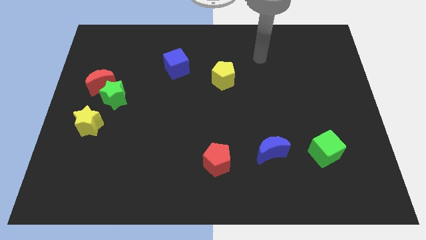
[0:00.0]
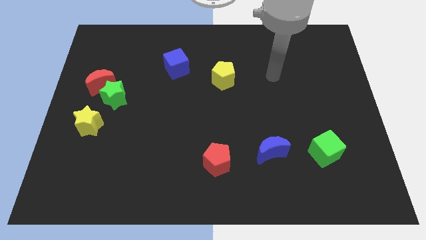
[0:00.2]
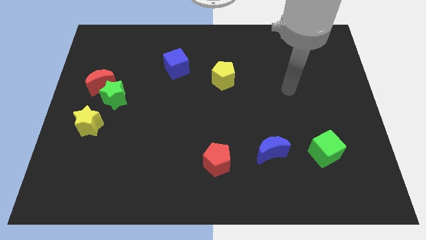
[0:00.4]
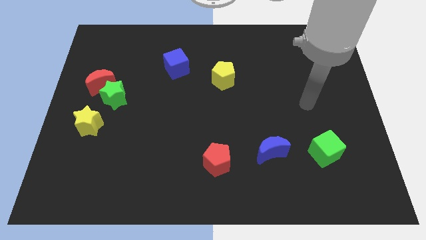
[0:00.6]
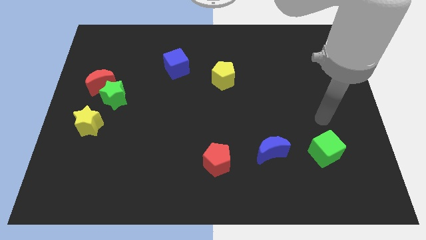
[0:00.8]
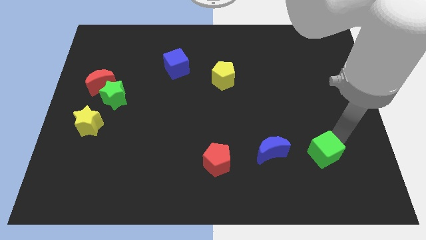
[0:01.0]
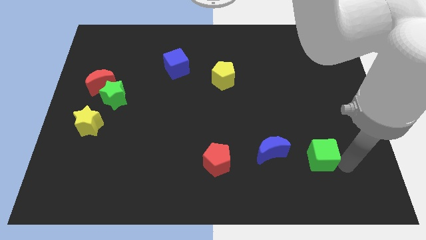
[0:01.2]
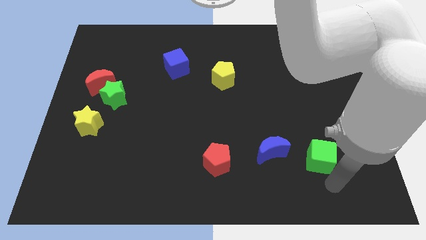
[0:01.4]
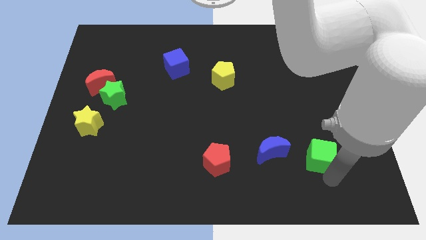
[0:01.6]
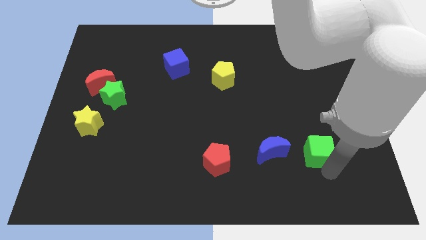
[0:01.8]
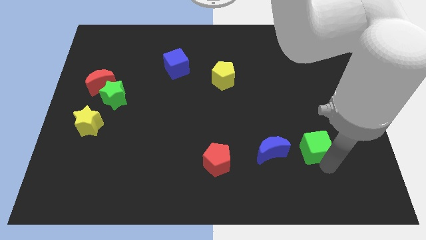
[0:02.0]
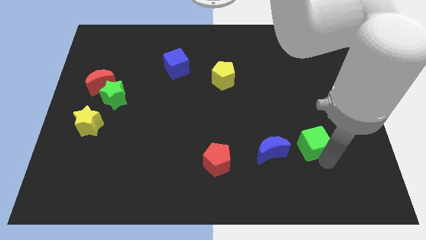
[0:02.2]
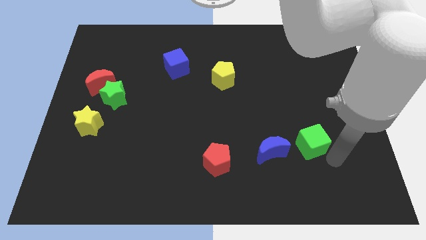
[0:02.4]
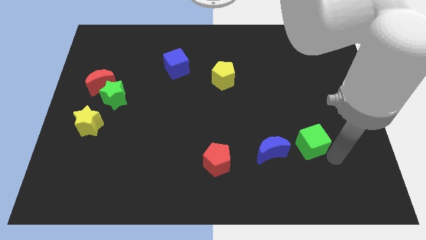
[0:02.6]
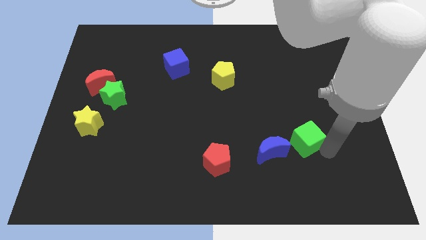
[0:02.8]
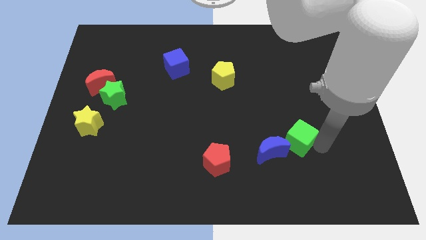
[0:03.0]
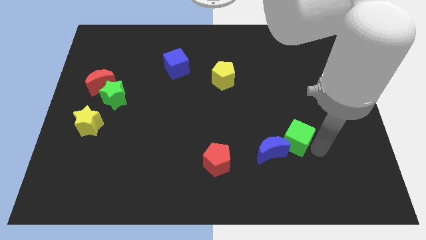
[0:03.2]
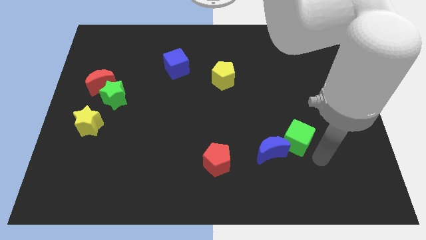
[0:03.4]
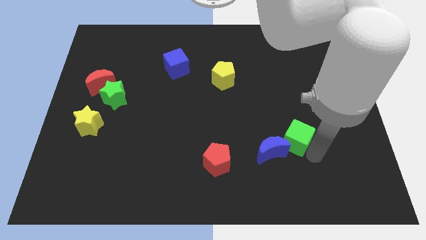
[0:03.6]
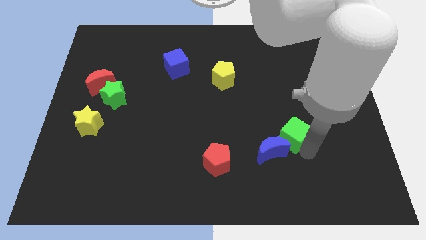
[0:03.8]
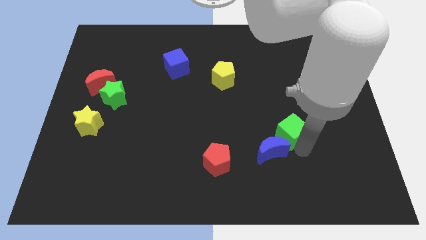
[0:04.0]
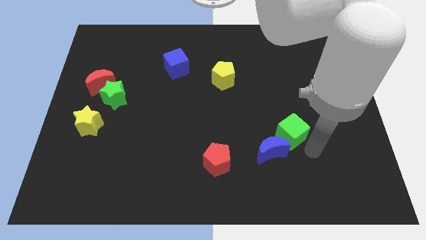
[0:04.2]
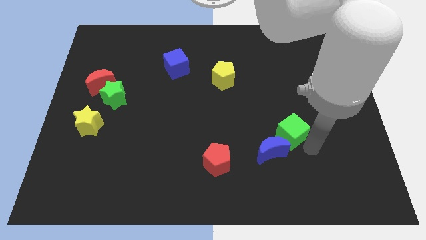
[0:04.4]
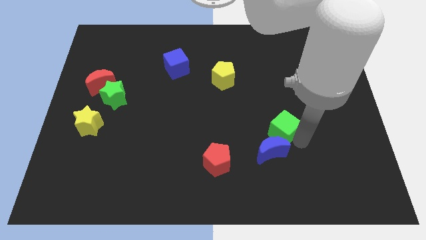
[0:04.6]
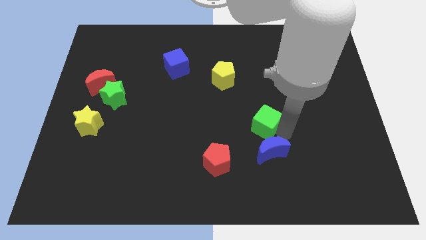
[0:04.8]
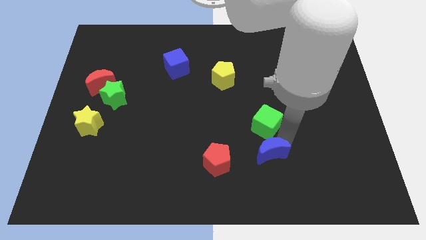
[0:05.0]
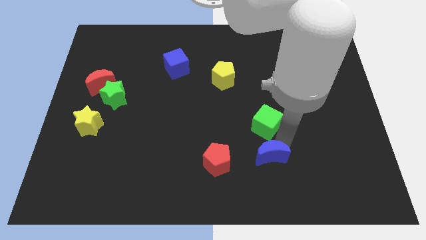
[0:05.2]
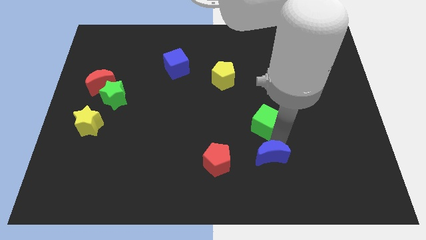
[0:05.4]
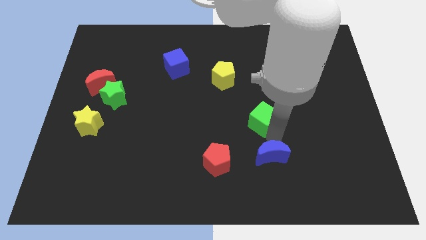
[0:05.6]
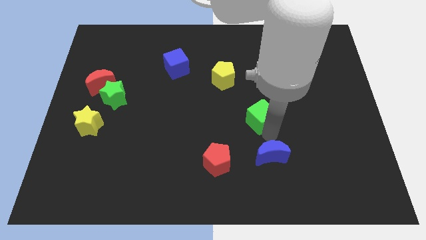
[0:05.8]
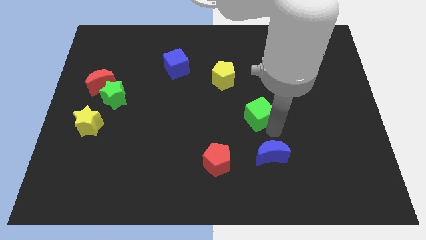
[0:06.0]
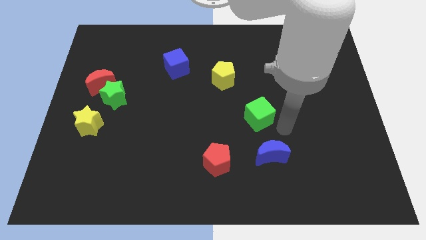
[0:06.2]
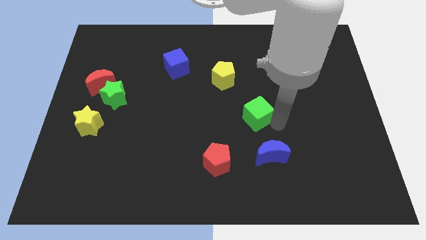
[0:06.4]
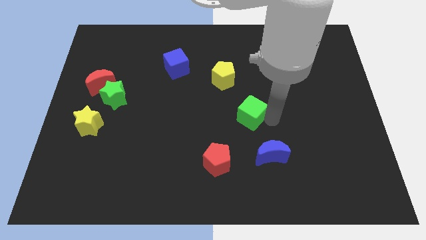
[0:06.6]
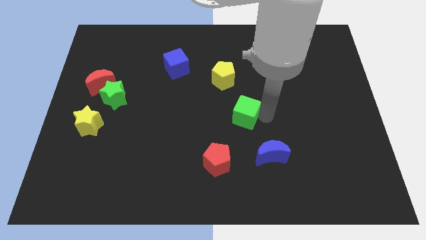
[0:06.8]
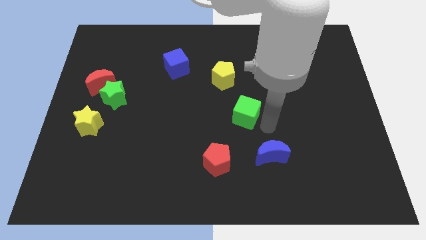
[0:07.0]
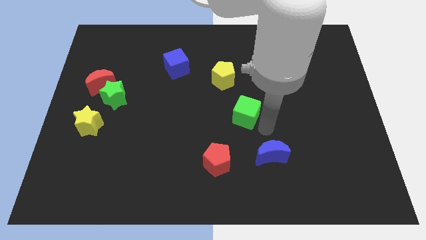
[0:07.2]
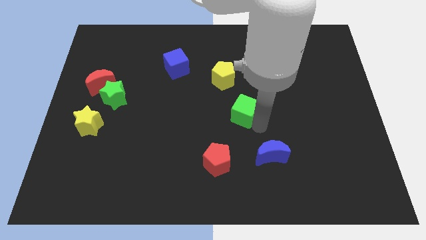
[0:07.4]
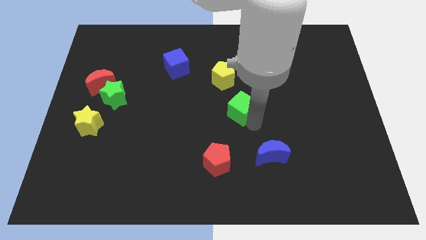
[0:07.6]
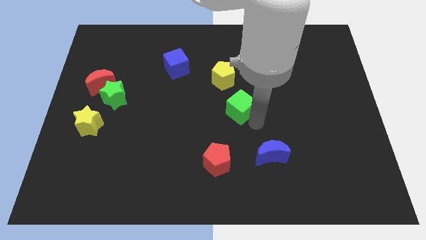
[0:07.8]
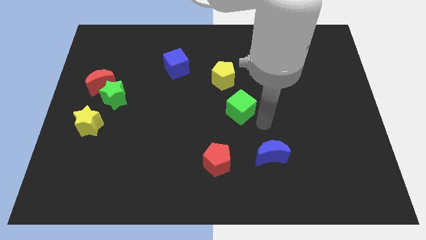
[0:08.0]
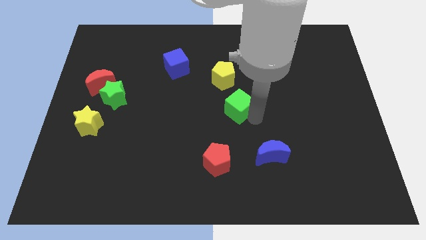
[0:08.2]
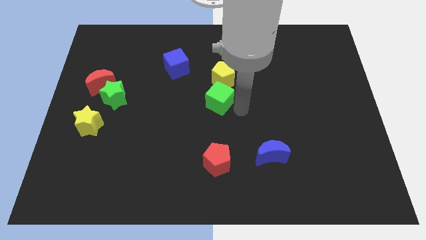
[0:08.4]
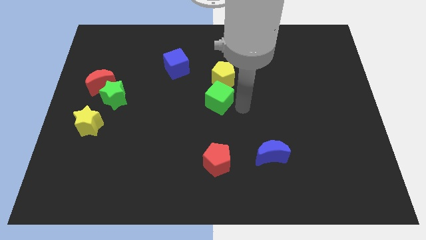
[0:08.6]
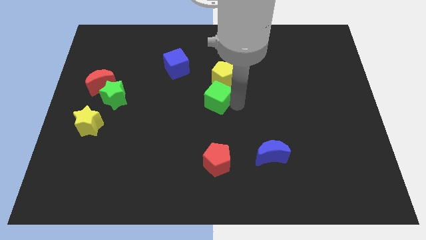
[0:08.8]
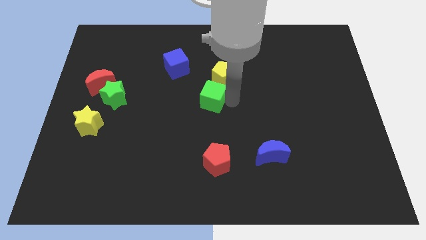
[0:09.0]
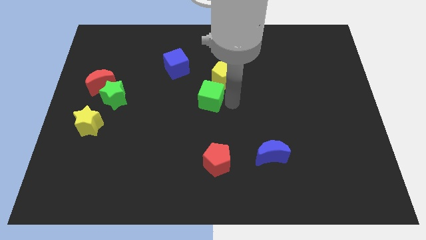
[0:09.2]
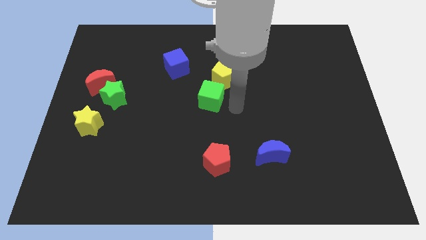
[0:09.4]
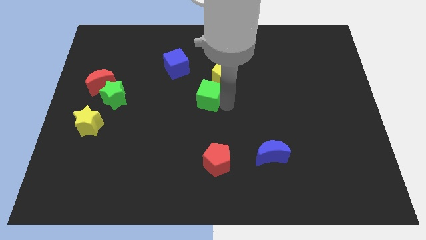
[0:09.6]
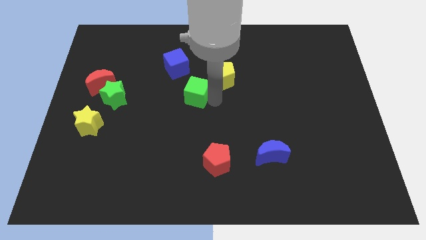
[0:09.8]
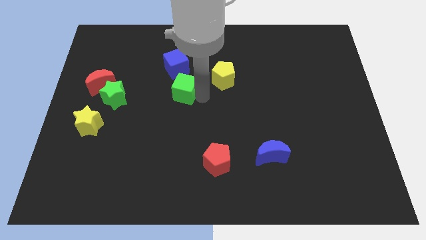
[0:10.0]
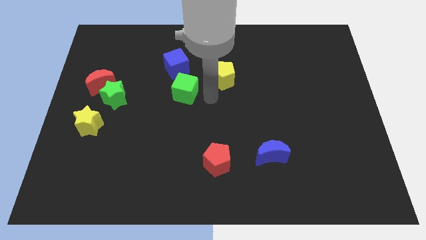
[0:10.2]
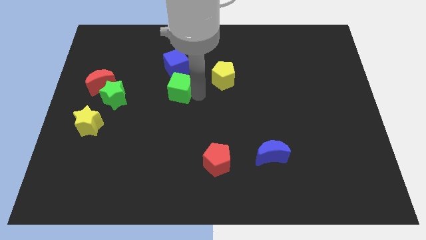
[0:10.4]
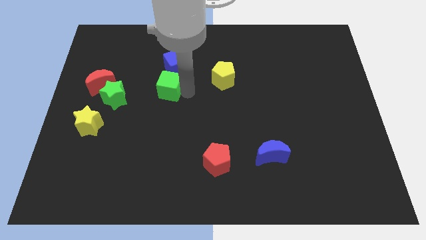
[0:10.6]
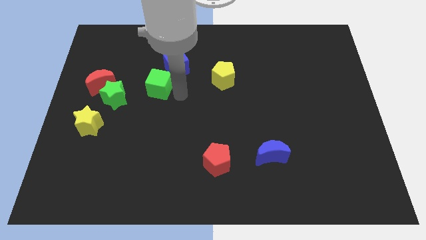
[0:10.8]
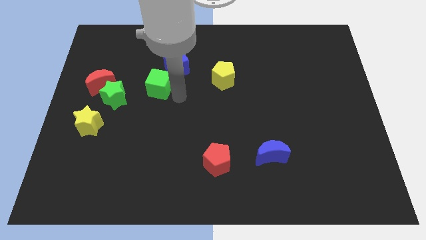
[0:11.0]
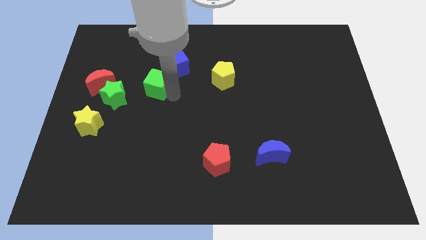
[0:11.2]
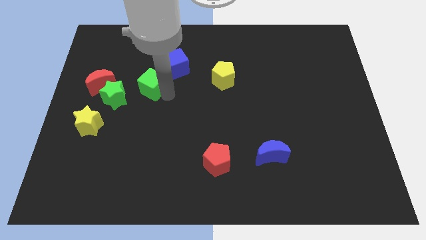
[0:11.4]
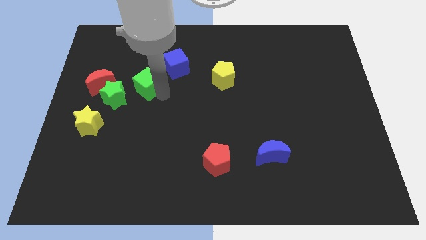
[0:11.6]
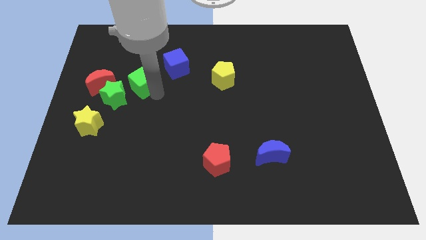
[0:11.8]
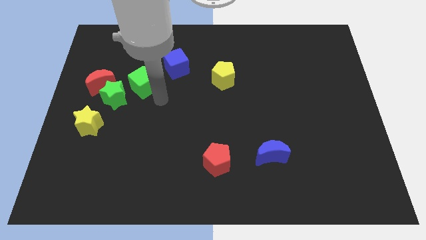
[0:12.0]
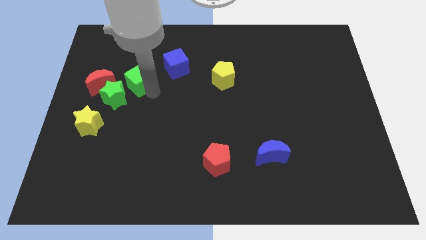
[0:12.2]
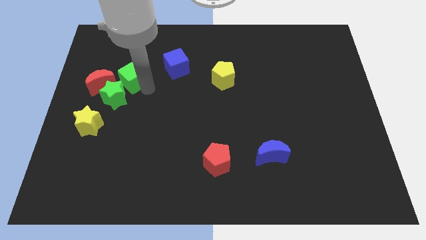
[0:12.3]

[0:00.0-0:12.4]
push the green cube diagonally up and to the right of the red moon
